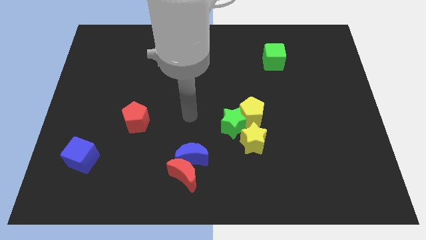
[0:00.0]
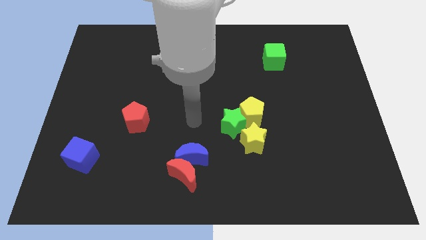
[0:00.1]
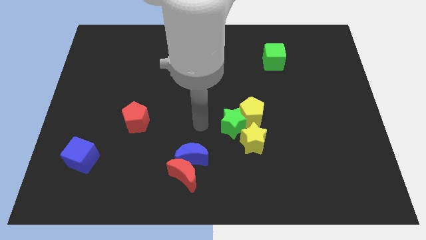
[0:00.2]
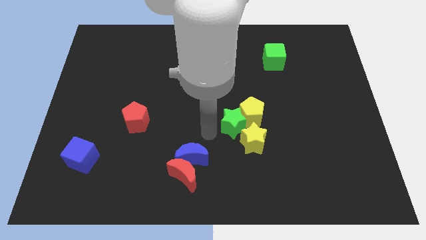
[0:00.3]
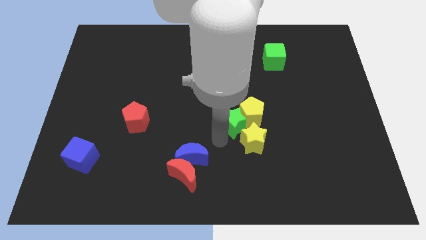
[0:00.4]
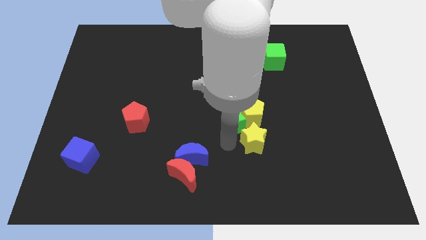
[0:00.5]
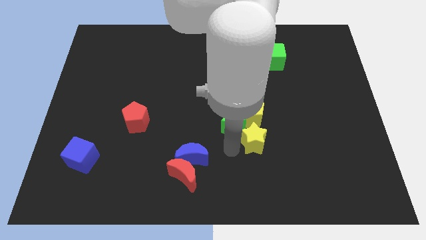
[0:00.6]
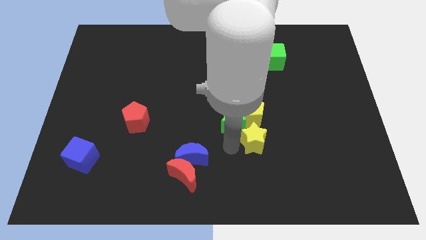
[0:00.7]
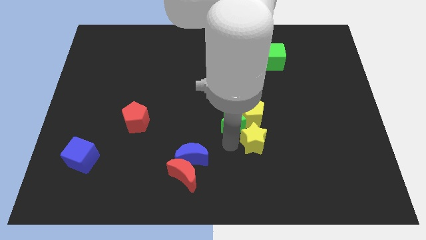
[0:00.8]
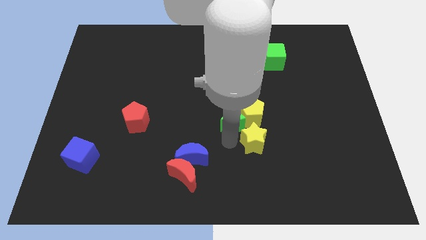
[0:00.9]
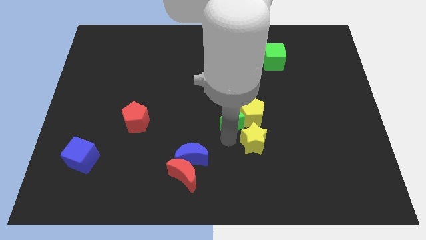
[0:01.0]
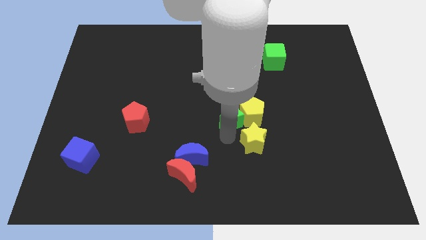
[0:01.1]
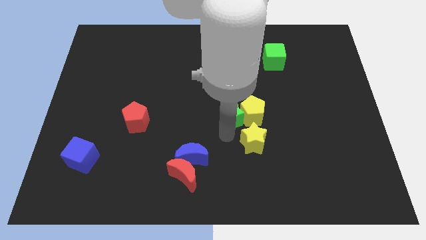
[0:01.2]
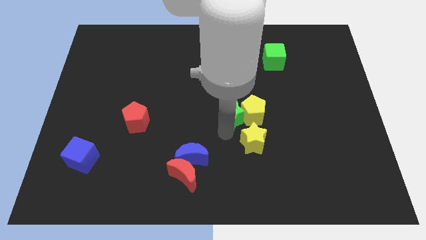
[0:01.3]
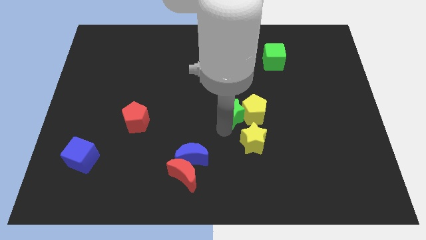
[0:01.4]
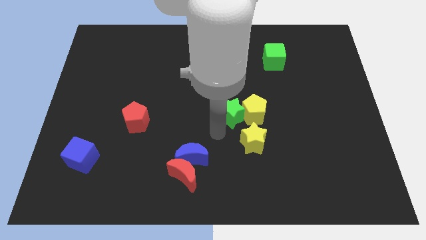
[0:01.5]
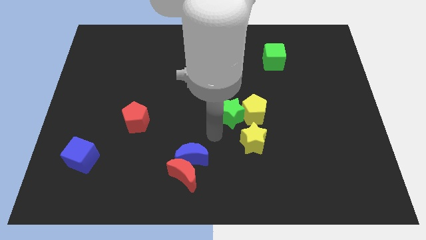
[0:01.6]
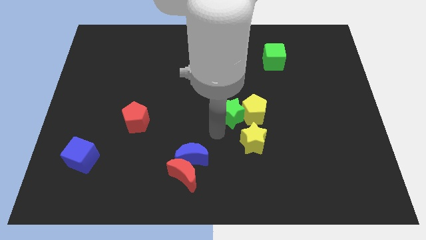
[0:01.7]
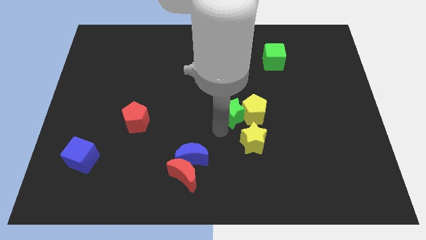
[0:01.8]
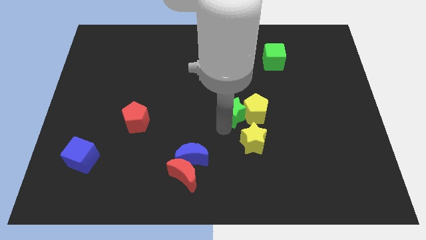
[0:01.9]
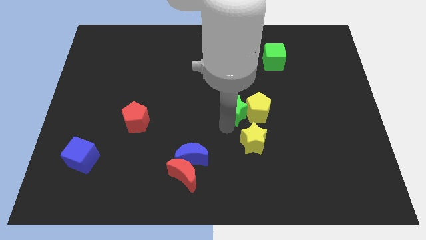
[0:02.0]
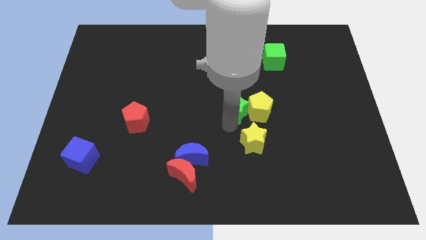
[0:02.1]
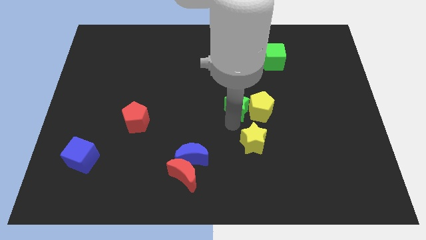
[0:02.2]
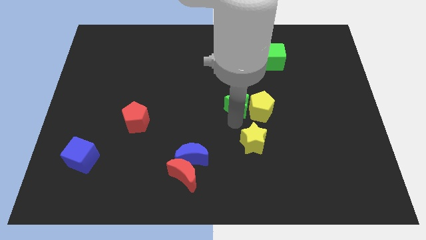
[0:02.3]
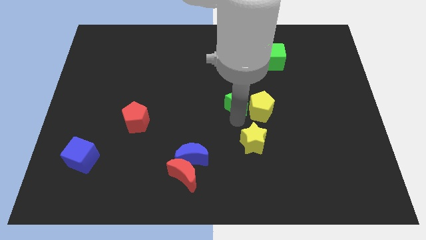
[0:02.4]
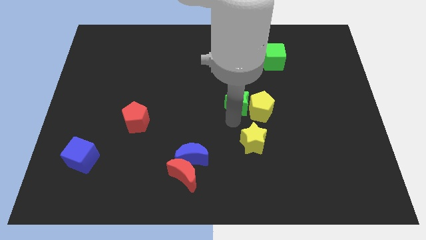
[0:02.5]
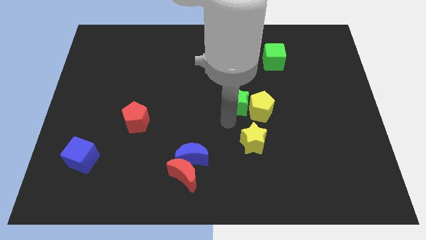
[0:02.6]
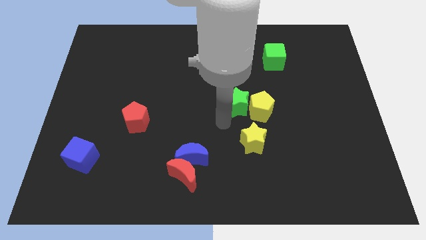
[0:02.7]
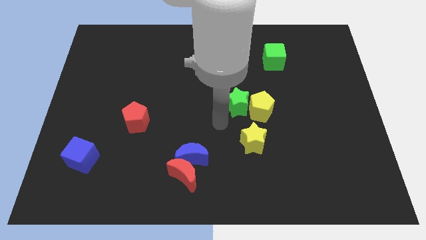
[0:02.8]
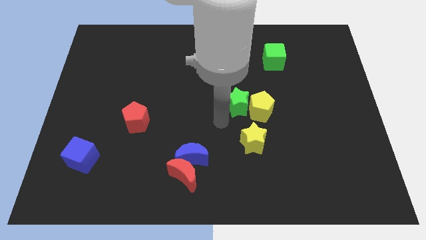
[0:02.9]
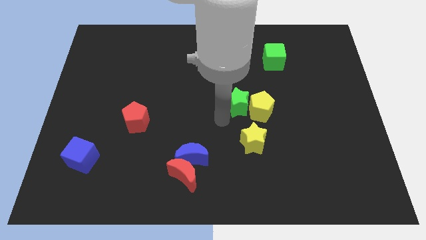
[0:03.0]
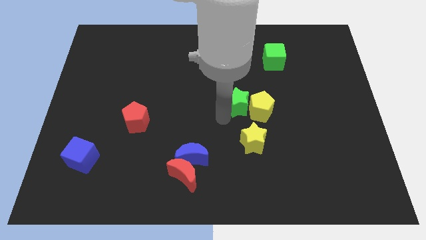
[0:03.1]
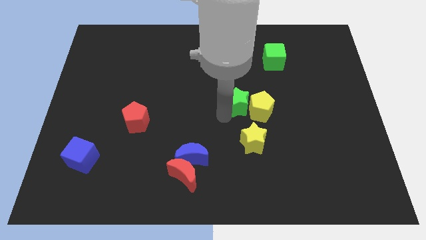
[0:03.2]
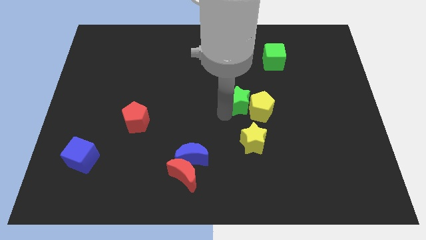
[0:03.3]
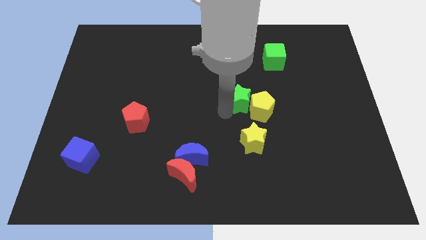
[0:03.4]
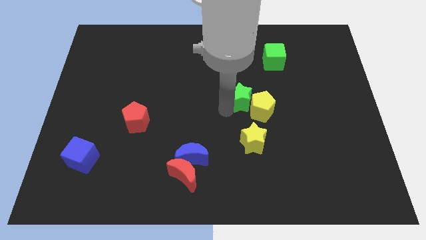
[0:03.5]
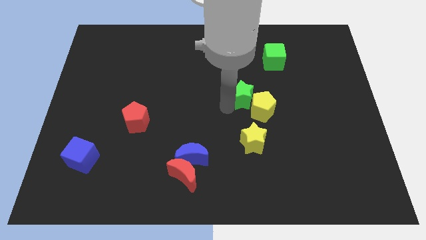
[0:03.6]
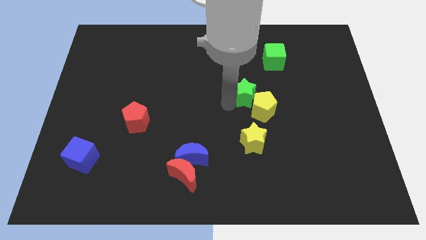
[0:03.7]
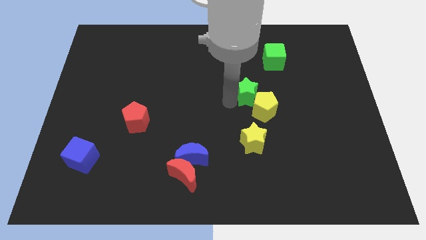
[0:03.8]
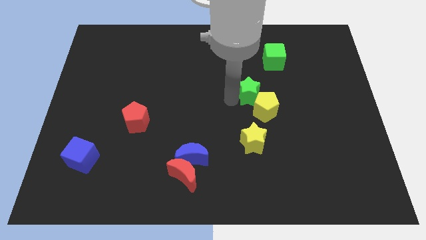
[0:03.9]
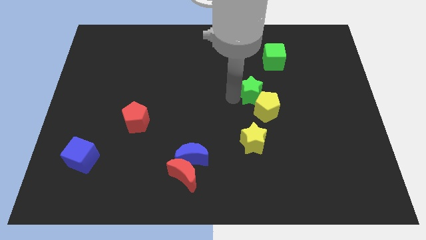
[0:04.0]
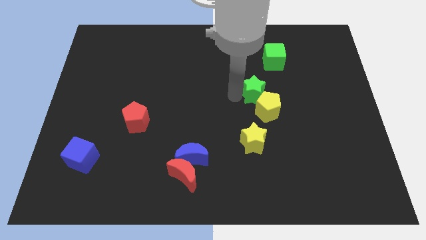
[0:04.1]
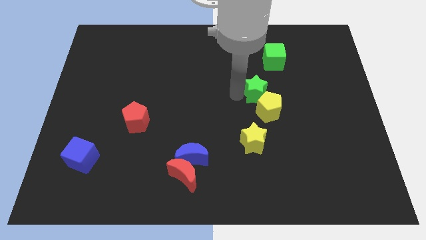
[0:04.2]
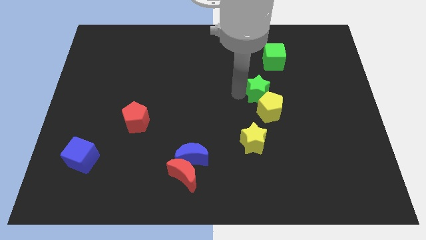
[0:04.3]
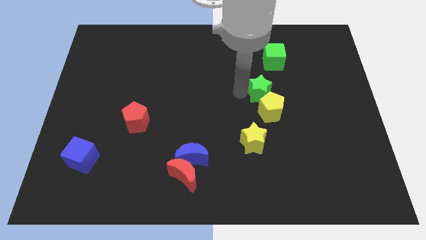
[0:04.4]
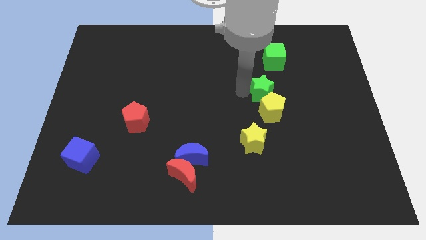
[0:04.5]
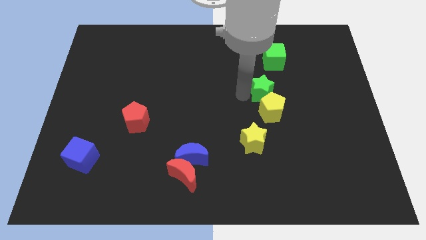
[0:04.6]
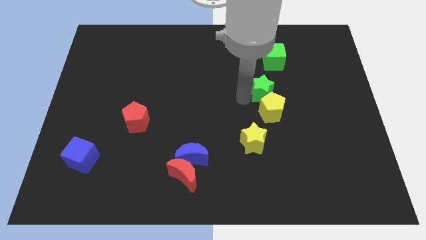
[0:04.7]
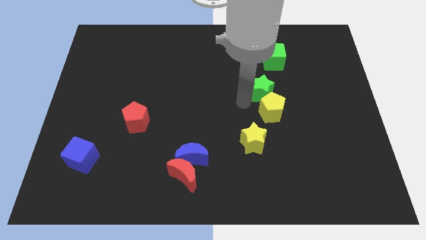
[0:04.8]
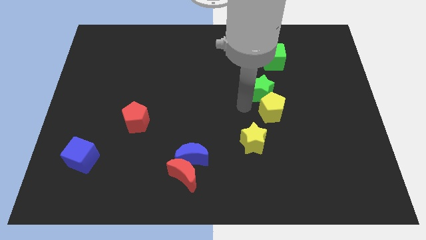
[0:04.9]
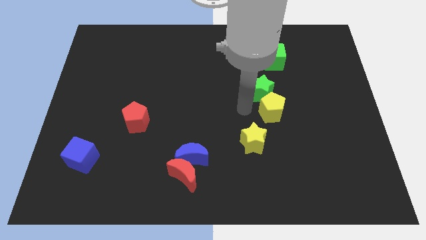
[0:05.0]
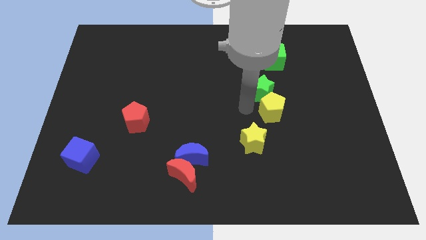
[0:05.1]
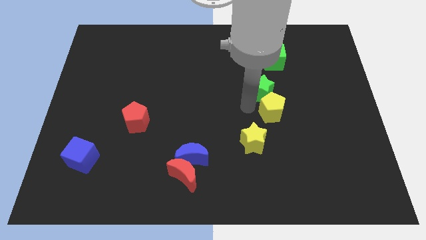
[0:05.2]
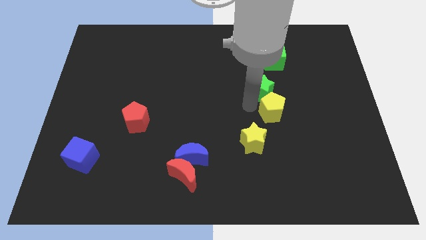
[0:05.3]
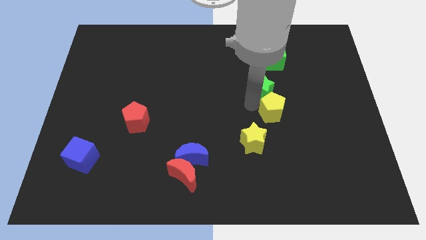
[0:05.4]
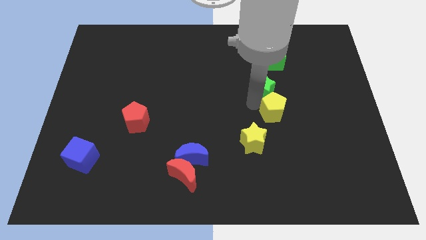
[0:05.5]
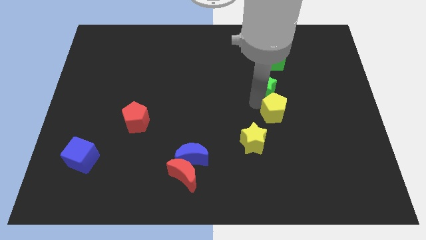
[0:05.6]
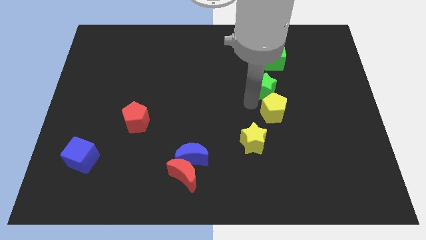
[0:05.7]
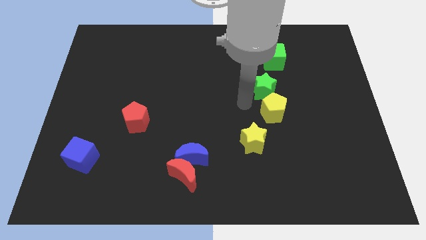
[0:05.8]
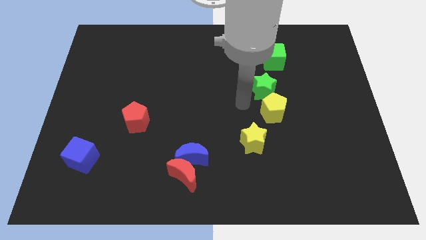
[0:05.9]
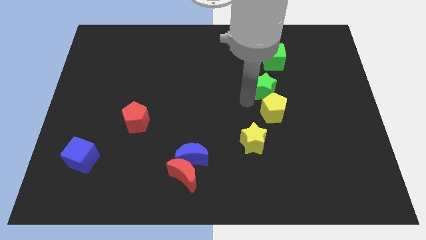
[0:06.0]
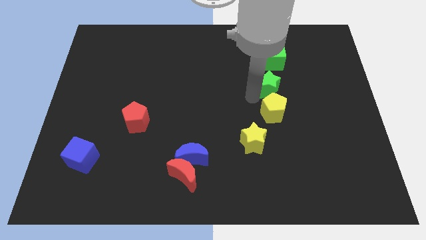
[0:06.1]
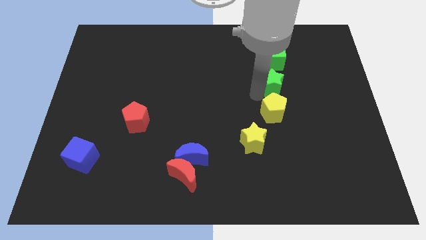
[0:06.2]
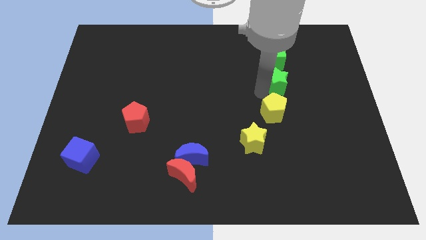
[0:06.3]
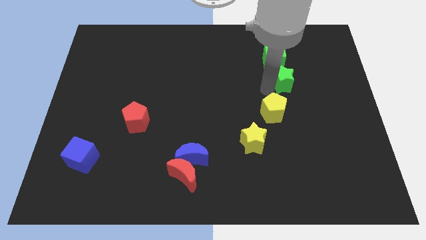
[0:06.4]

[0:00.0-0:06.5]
put the green star diagonally down and to the right of the green cube

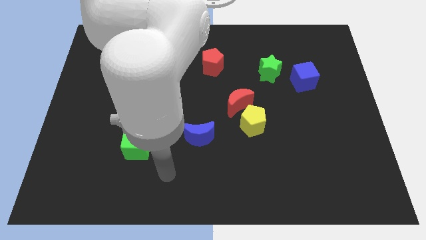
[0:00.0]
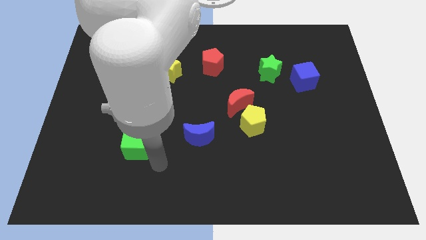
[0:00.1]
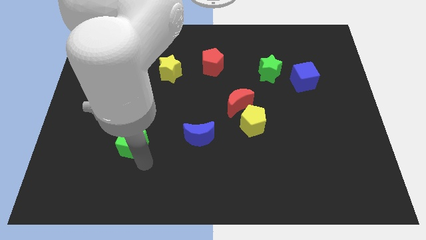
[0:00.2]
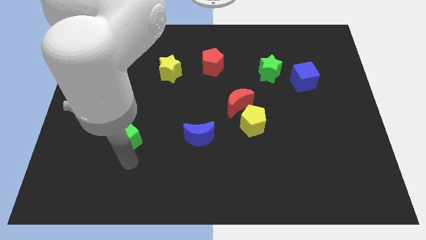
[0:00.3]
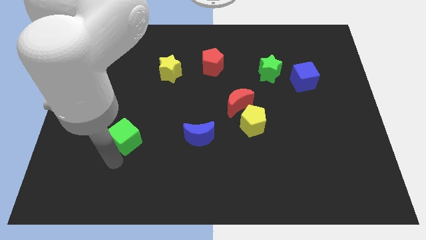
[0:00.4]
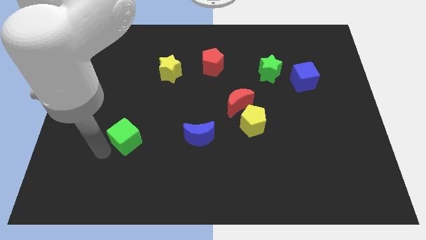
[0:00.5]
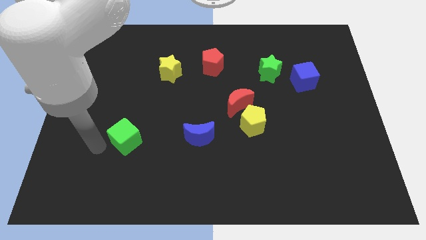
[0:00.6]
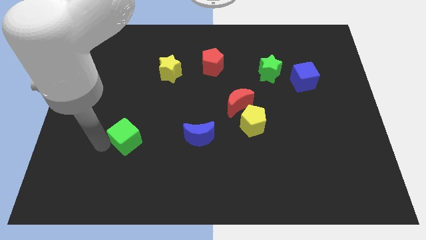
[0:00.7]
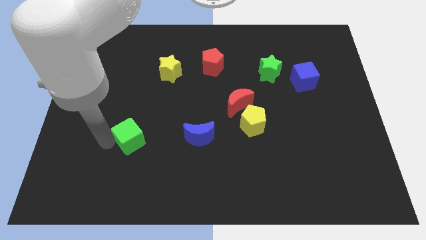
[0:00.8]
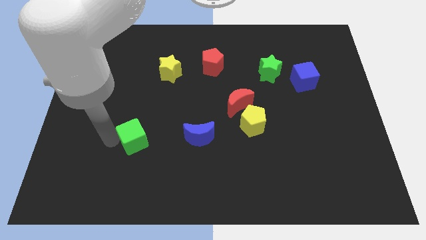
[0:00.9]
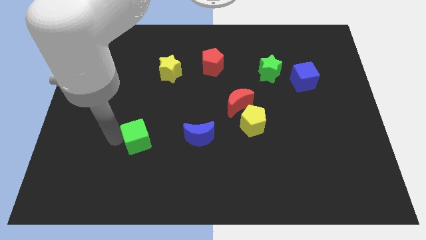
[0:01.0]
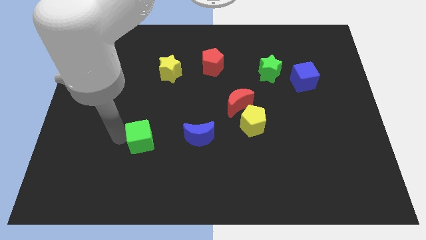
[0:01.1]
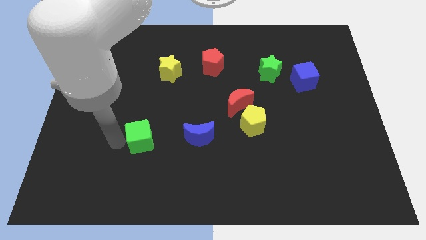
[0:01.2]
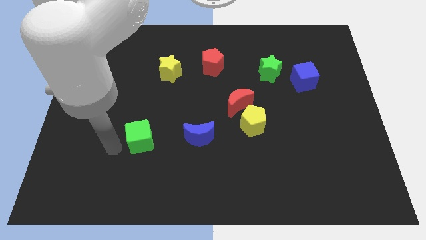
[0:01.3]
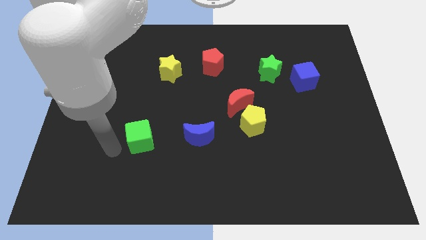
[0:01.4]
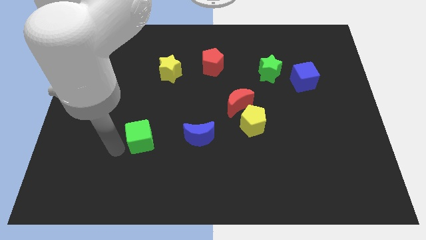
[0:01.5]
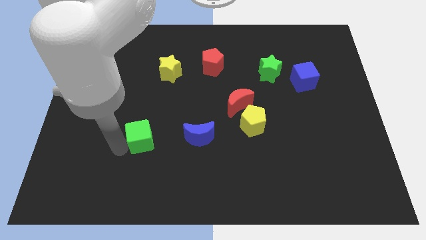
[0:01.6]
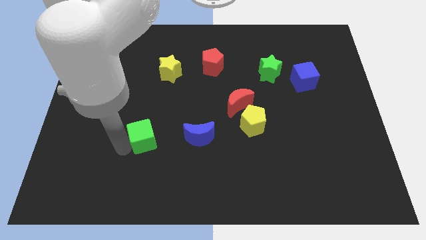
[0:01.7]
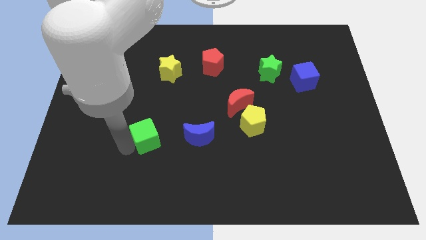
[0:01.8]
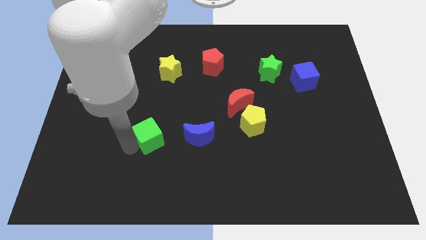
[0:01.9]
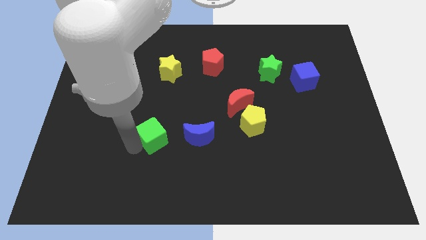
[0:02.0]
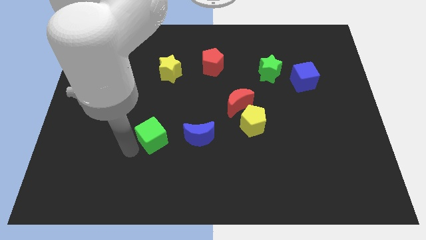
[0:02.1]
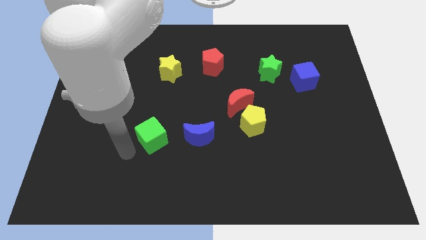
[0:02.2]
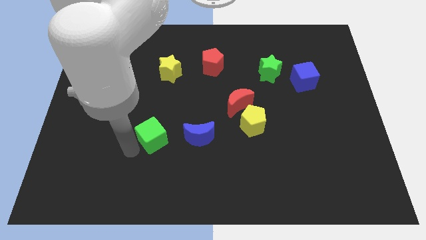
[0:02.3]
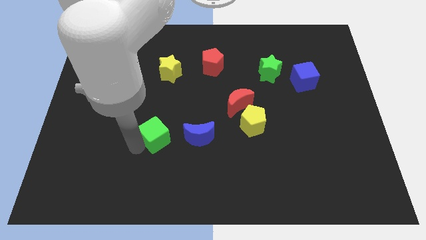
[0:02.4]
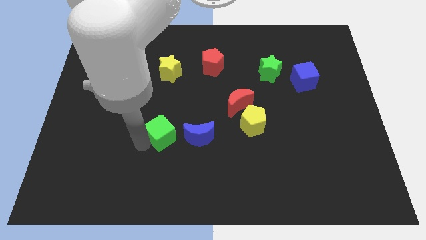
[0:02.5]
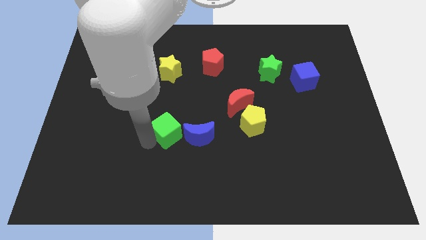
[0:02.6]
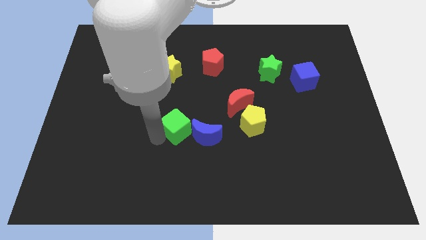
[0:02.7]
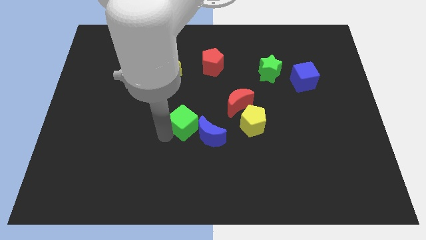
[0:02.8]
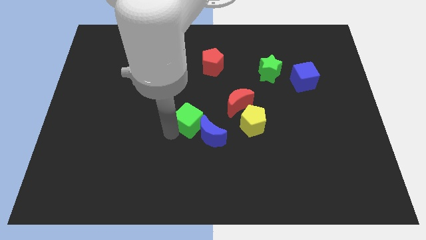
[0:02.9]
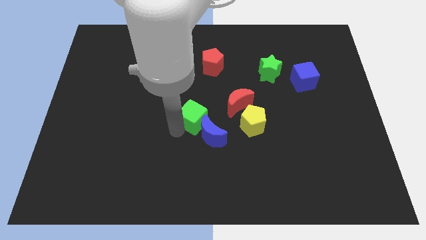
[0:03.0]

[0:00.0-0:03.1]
put the green cube to the bottom left of the red moon
